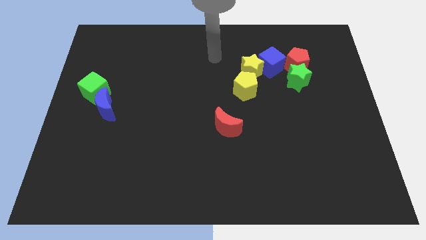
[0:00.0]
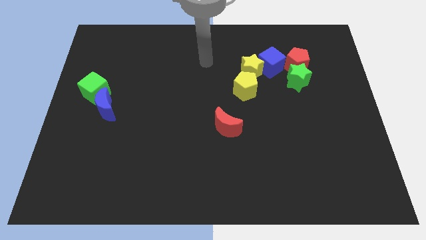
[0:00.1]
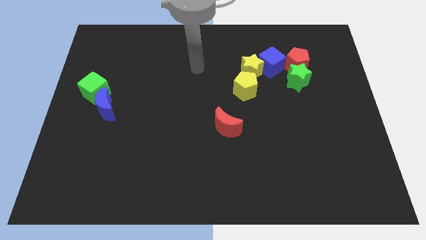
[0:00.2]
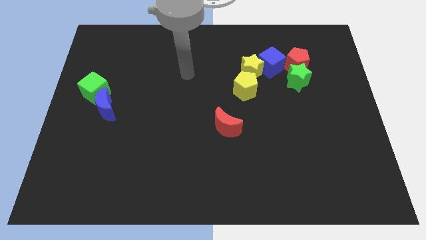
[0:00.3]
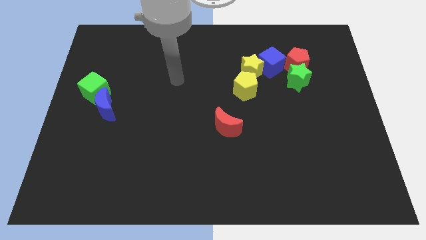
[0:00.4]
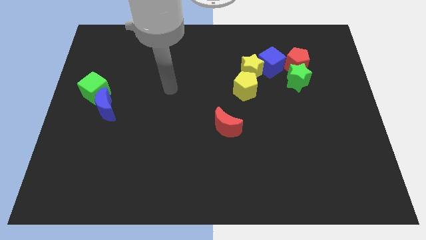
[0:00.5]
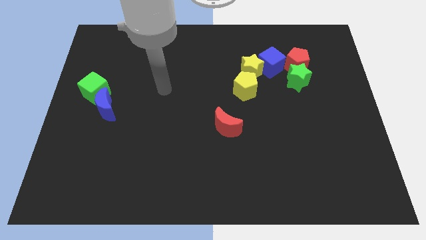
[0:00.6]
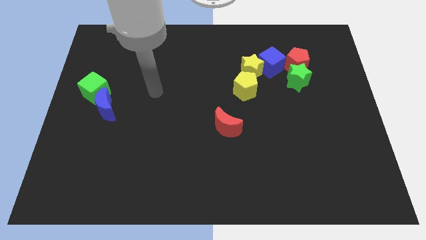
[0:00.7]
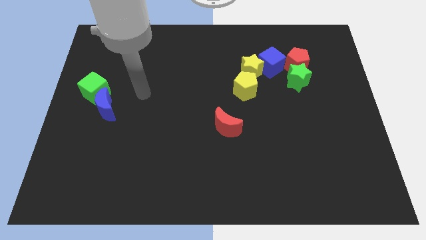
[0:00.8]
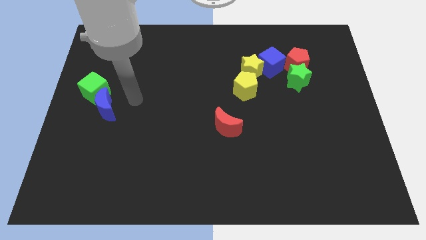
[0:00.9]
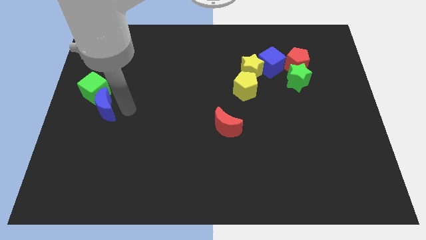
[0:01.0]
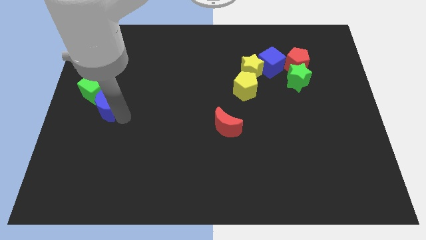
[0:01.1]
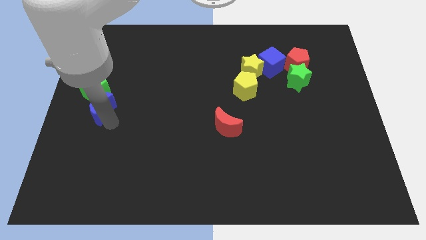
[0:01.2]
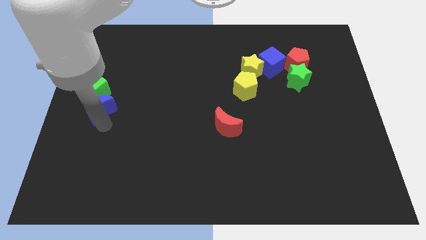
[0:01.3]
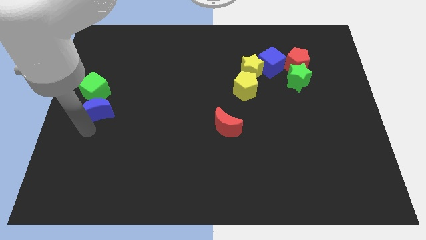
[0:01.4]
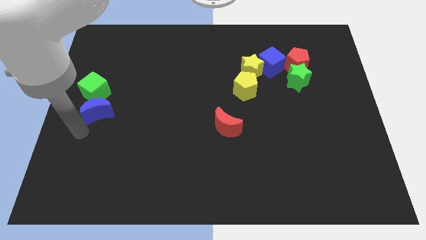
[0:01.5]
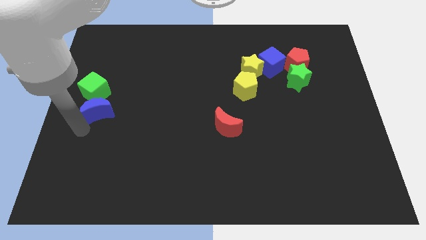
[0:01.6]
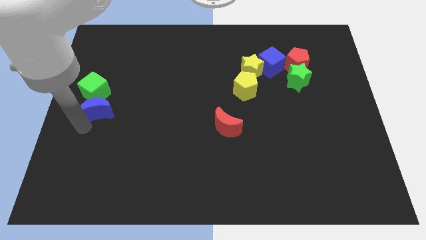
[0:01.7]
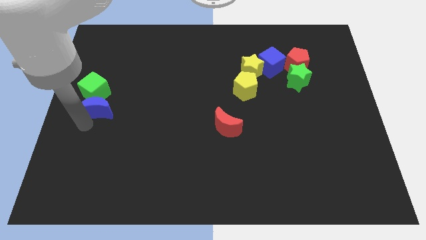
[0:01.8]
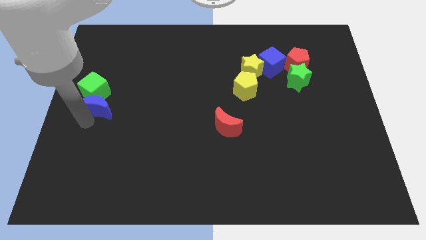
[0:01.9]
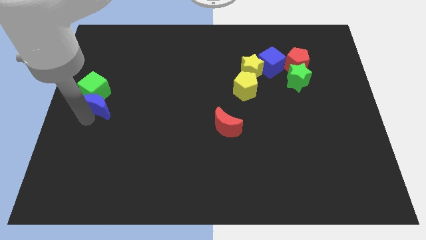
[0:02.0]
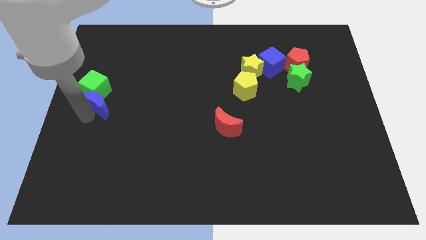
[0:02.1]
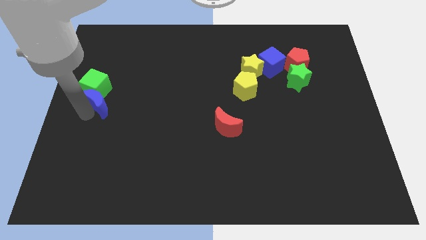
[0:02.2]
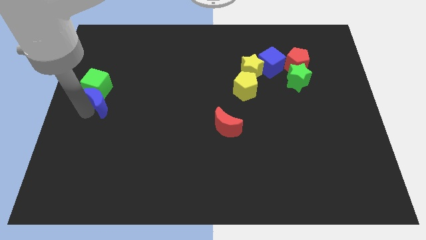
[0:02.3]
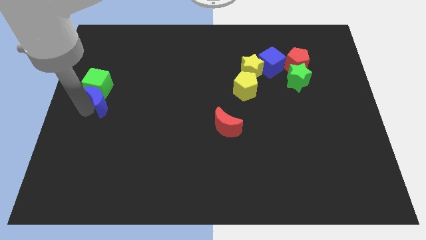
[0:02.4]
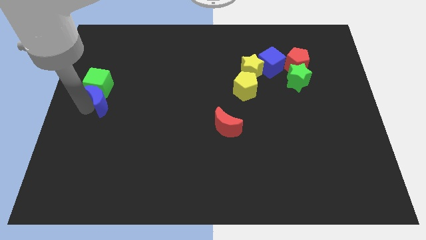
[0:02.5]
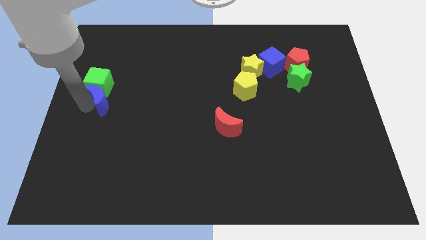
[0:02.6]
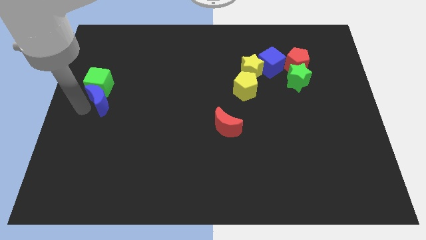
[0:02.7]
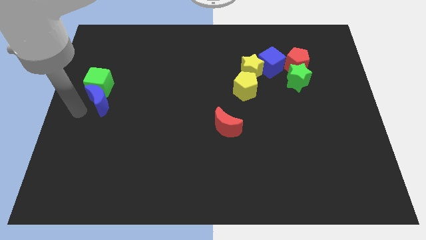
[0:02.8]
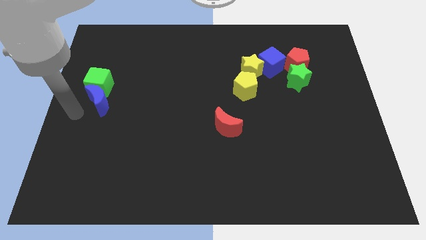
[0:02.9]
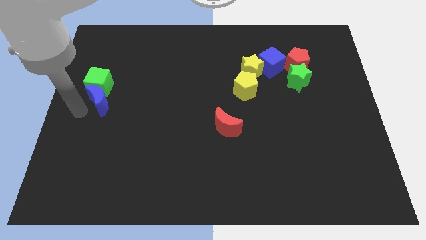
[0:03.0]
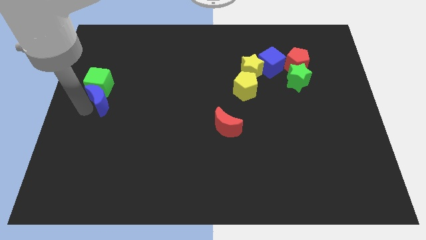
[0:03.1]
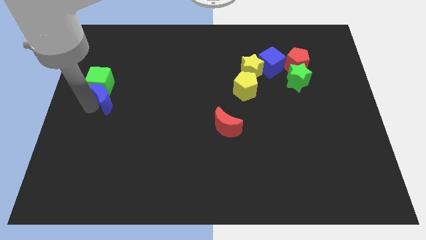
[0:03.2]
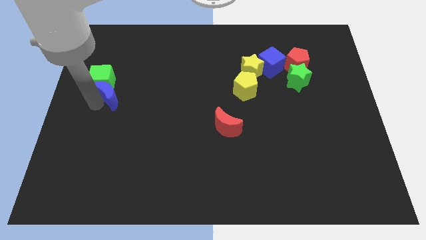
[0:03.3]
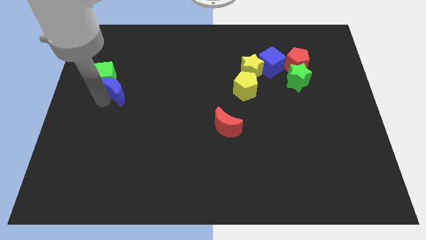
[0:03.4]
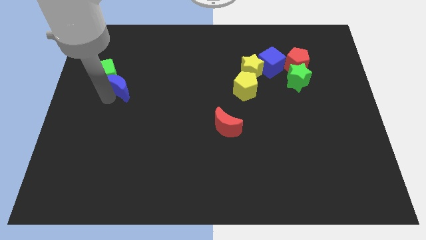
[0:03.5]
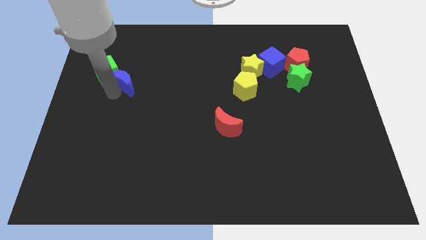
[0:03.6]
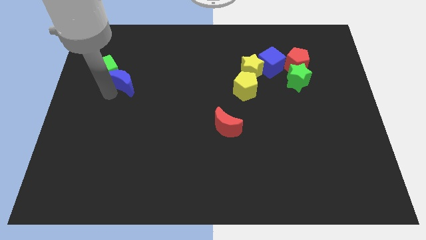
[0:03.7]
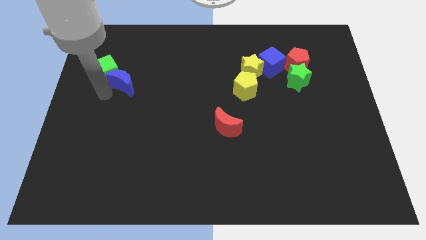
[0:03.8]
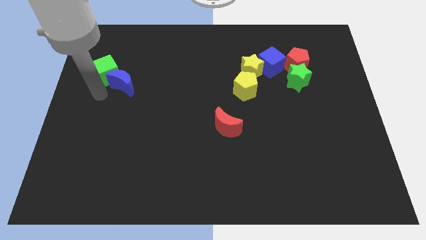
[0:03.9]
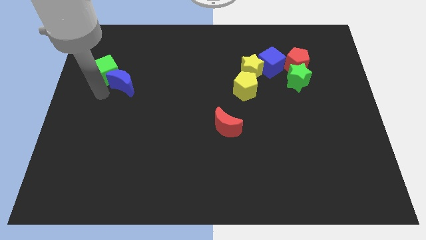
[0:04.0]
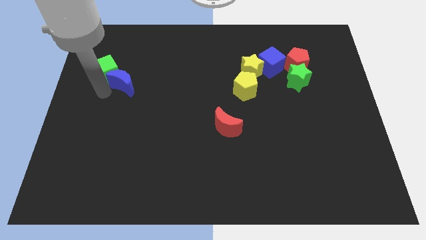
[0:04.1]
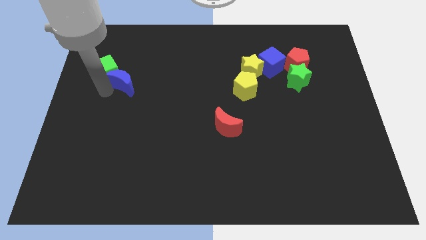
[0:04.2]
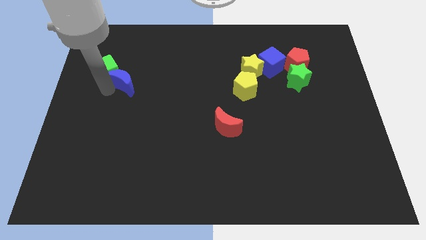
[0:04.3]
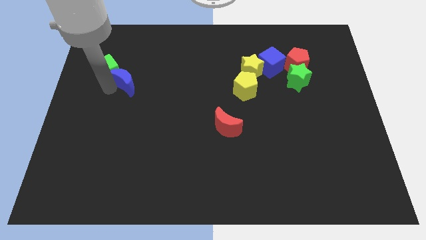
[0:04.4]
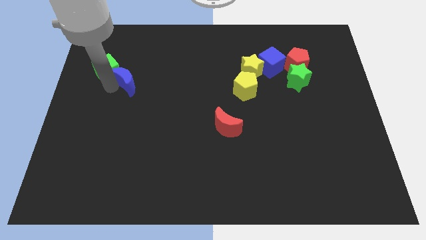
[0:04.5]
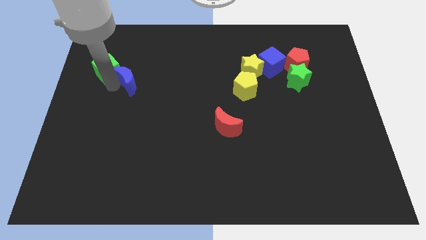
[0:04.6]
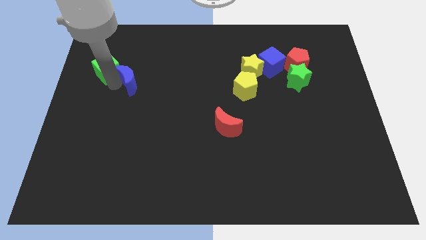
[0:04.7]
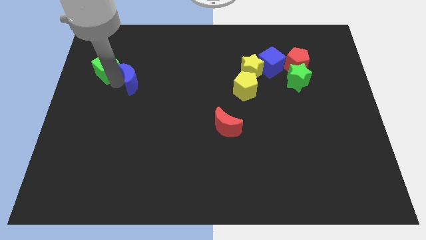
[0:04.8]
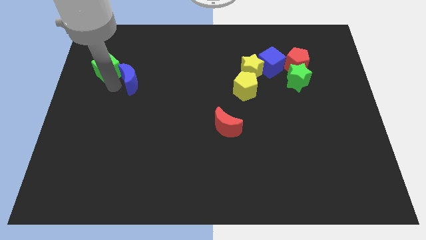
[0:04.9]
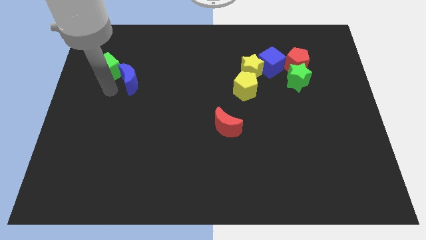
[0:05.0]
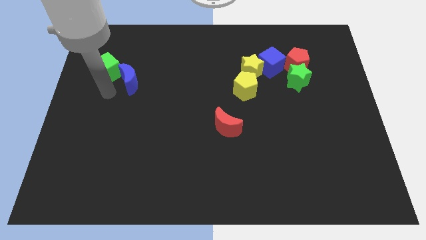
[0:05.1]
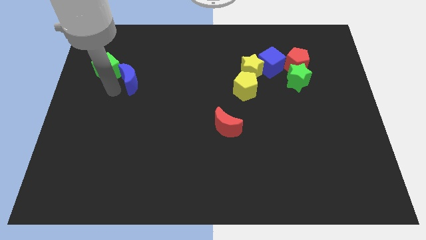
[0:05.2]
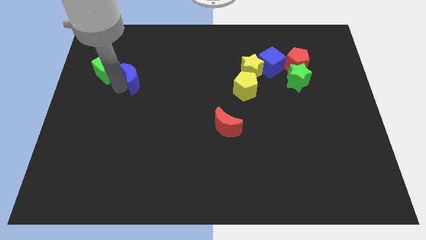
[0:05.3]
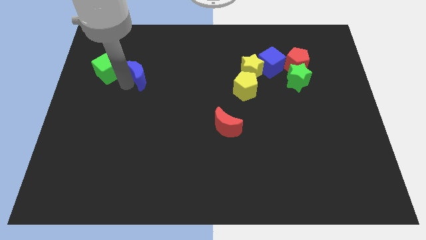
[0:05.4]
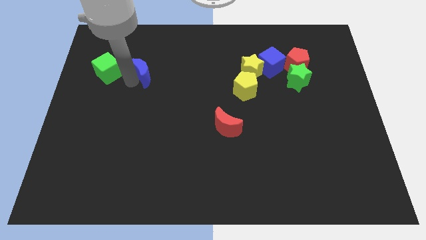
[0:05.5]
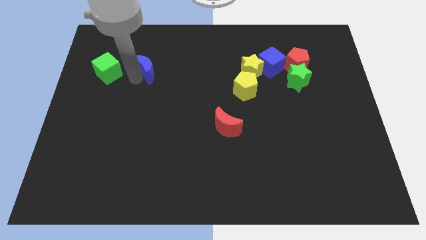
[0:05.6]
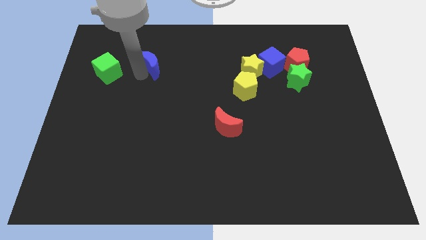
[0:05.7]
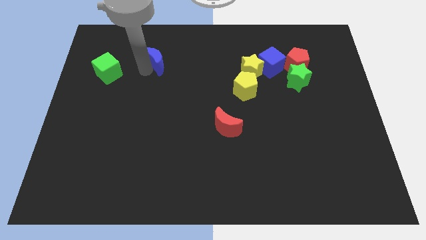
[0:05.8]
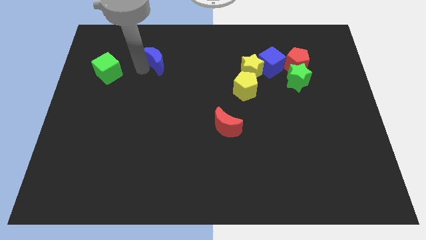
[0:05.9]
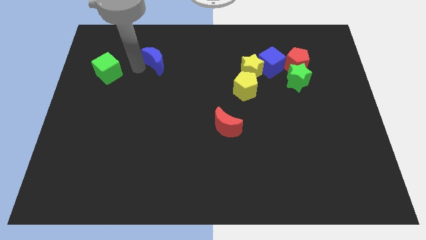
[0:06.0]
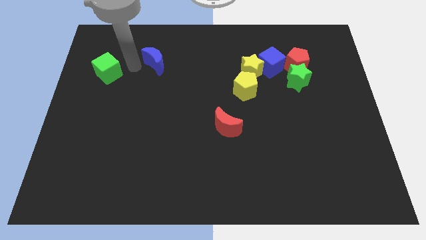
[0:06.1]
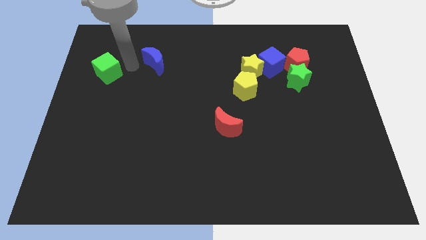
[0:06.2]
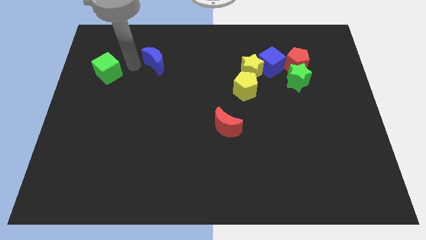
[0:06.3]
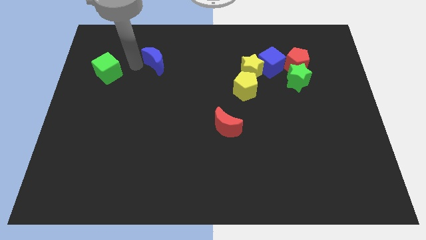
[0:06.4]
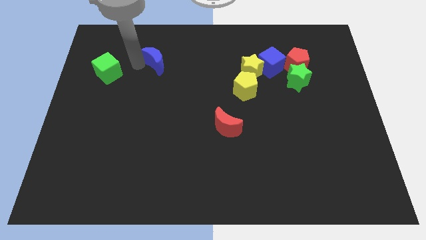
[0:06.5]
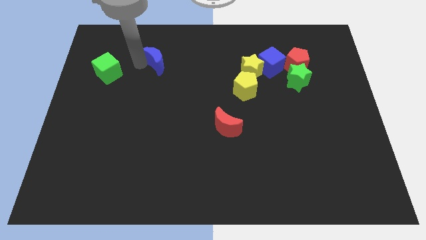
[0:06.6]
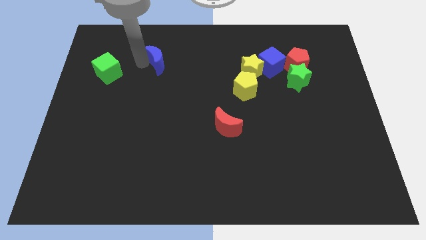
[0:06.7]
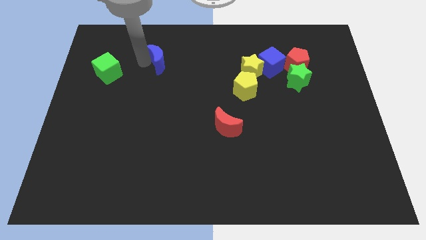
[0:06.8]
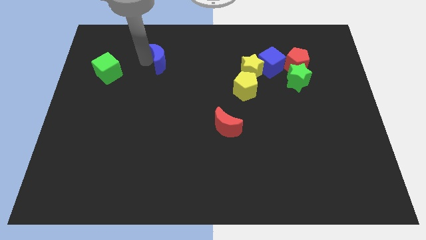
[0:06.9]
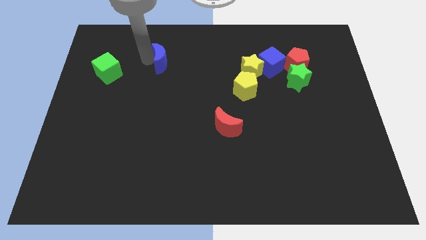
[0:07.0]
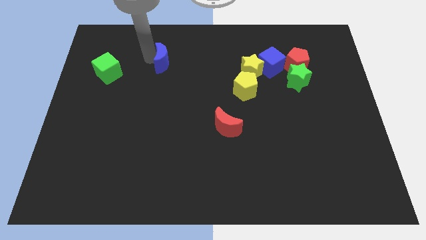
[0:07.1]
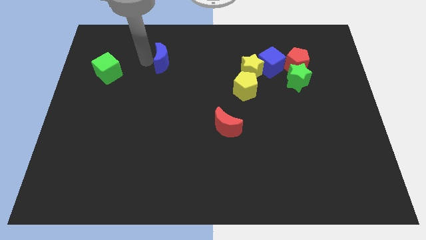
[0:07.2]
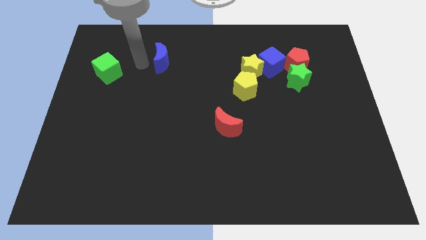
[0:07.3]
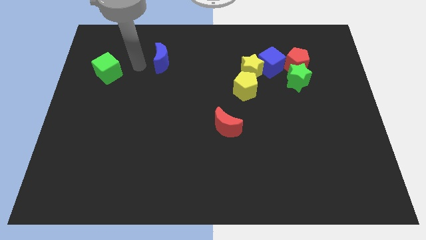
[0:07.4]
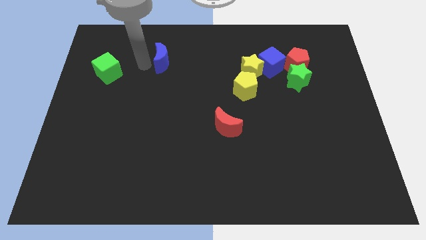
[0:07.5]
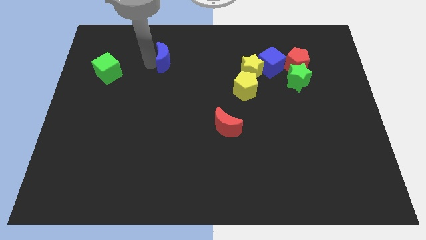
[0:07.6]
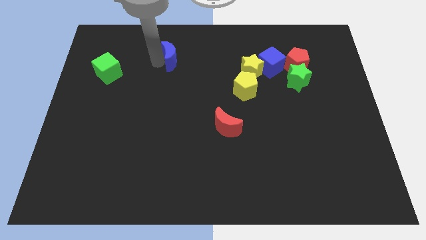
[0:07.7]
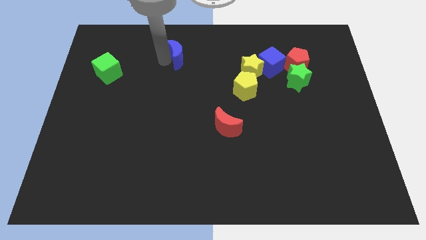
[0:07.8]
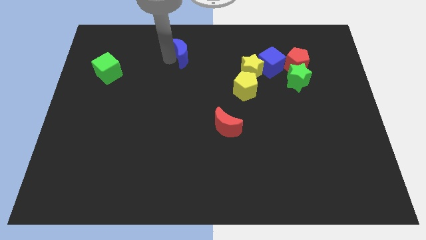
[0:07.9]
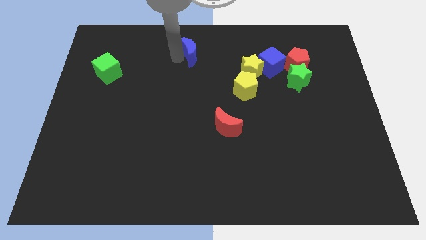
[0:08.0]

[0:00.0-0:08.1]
push the blue moon to the towards your base
